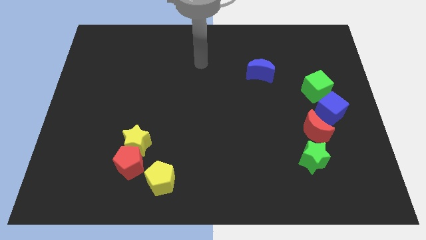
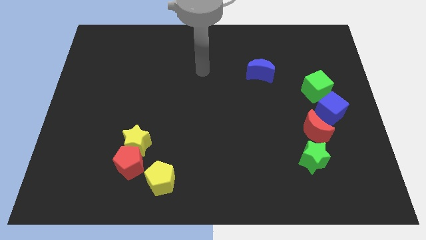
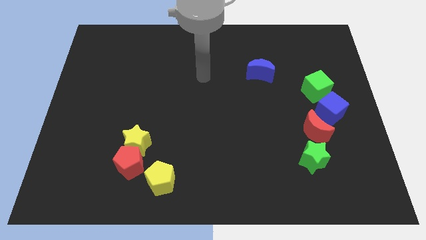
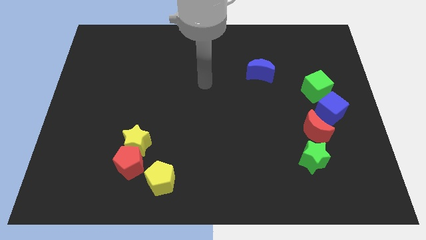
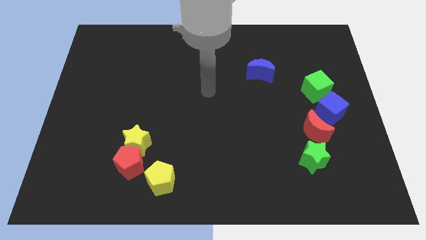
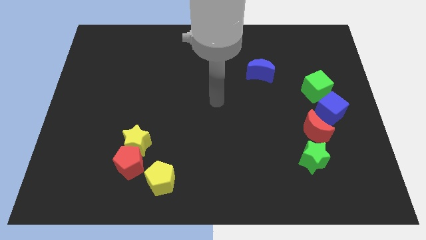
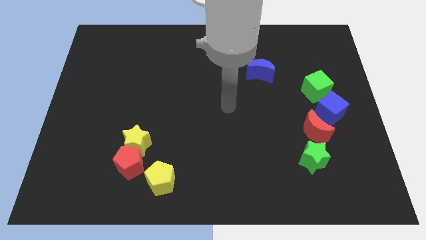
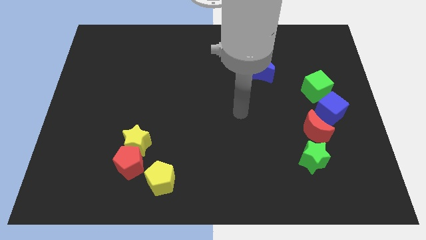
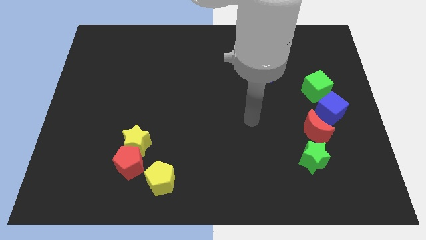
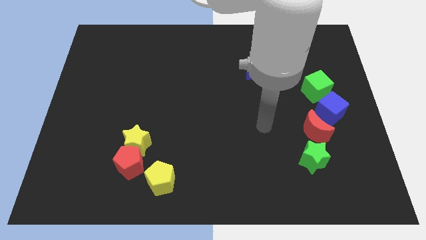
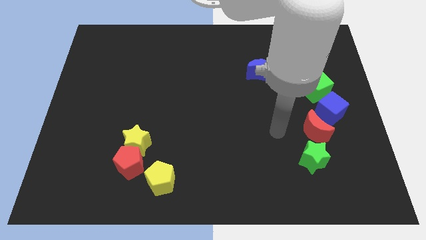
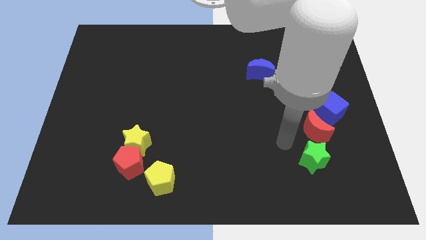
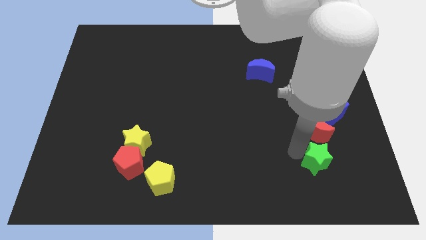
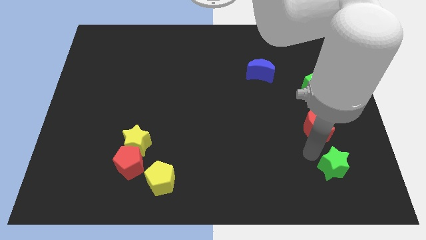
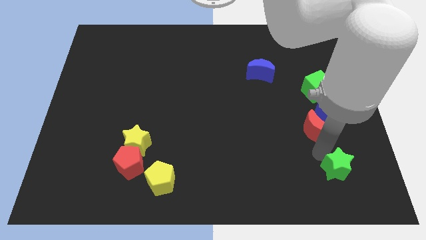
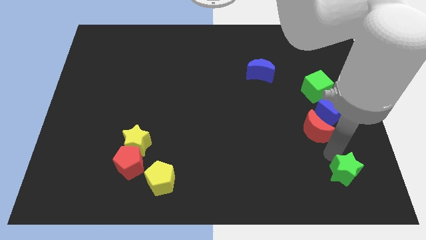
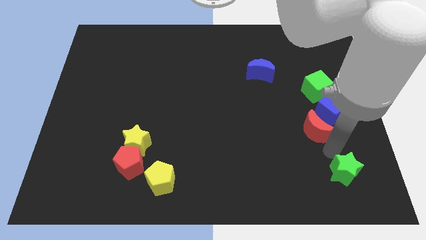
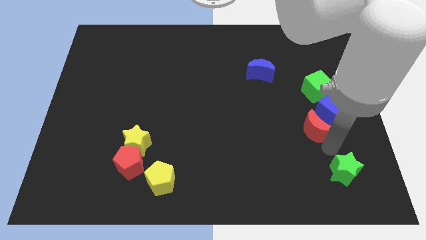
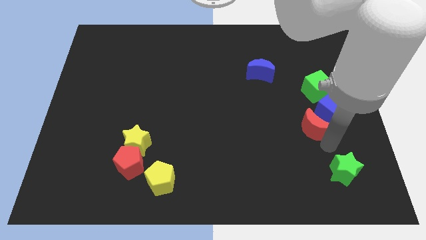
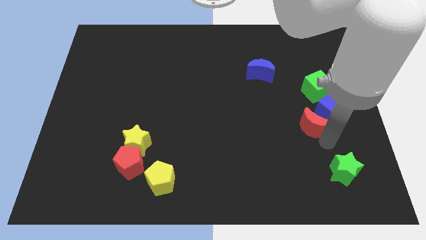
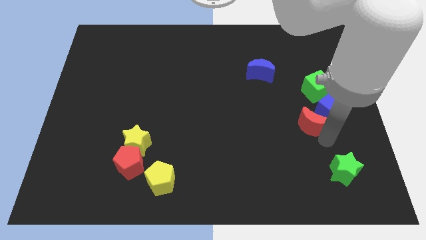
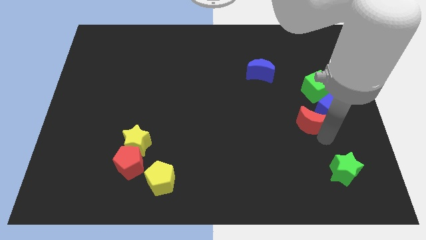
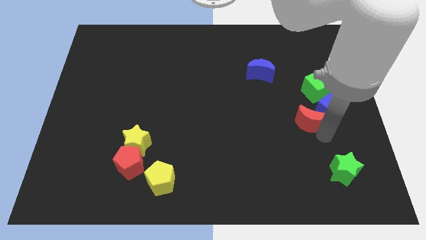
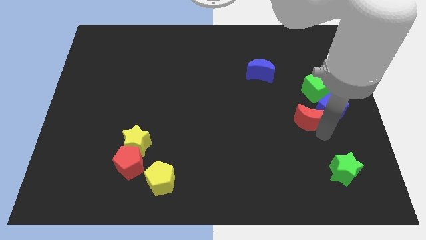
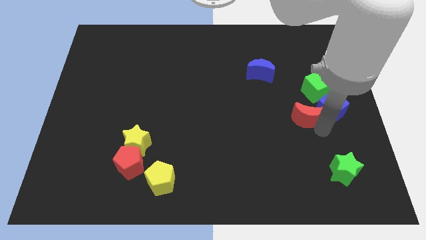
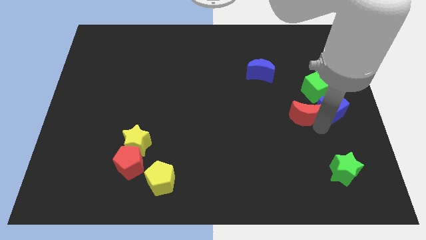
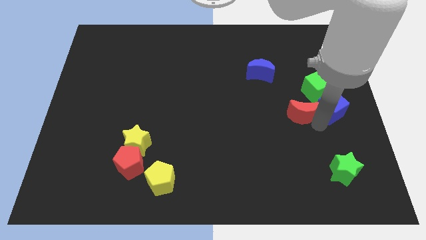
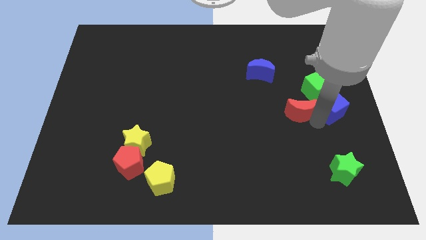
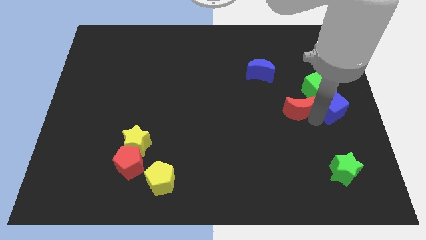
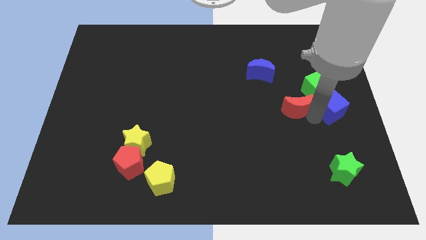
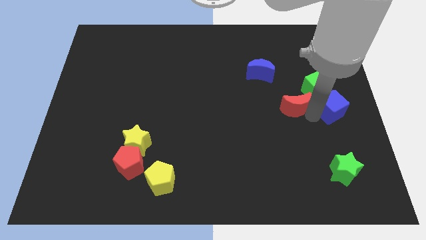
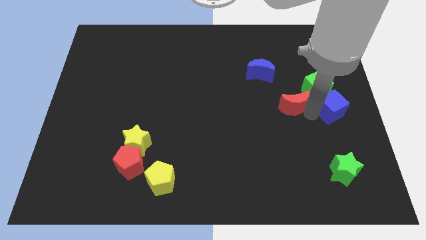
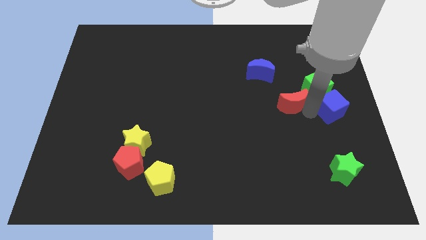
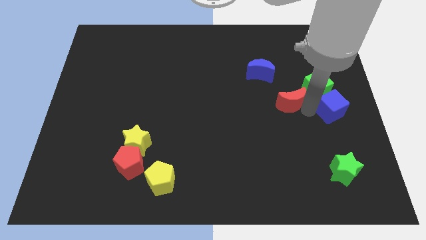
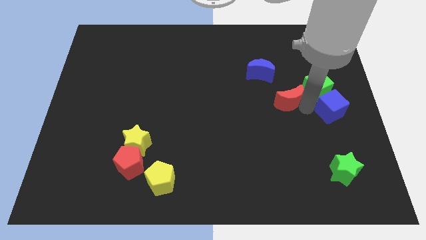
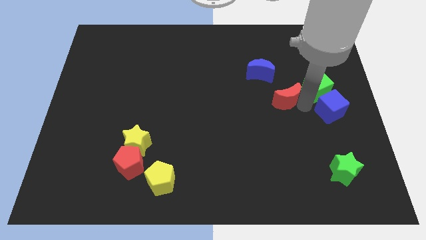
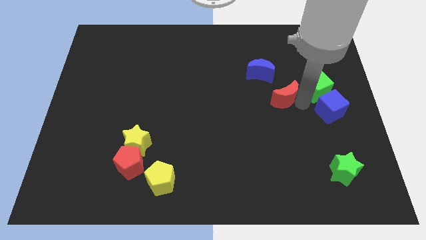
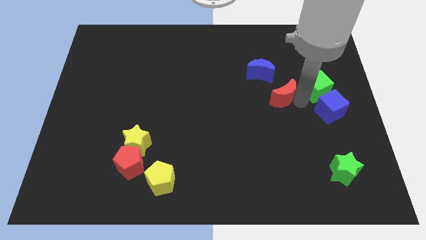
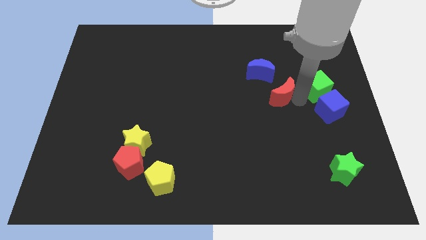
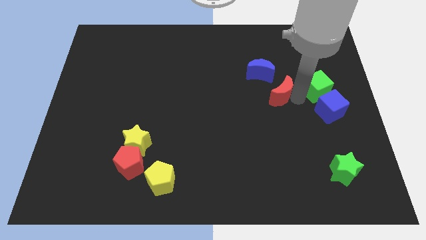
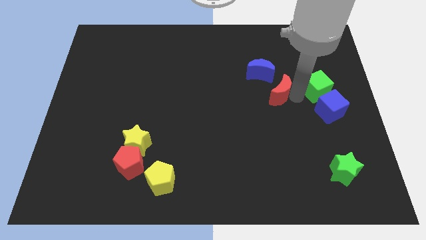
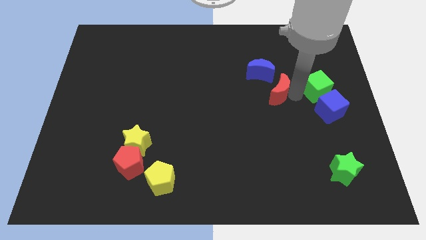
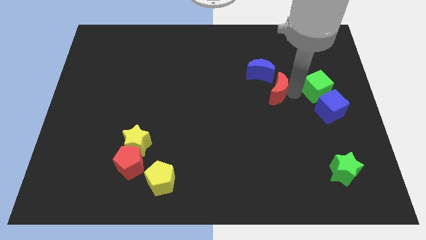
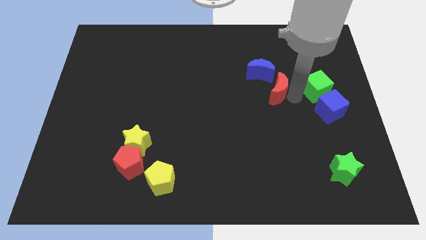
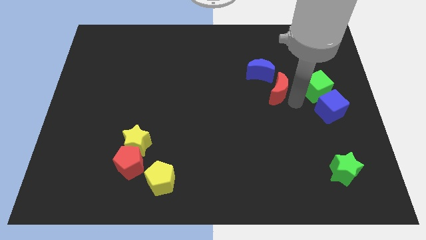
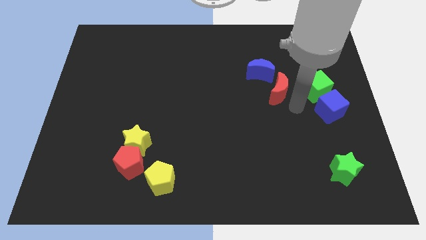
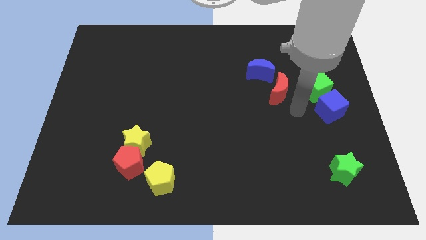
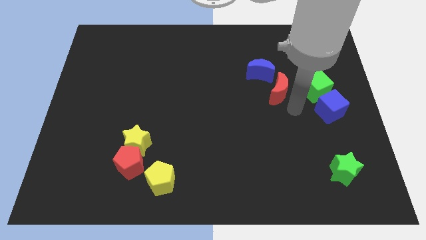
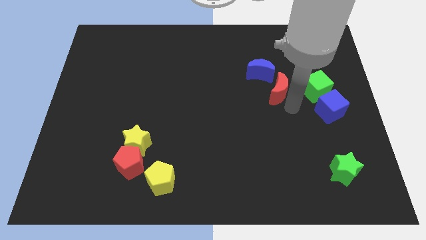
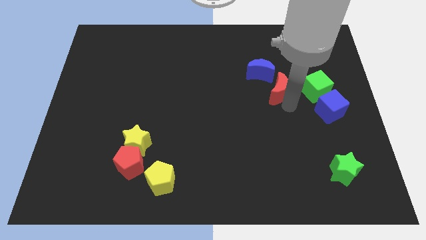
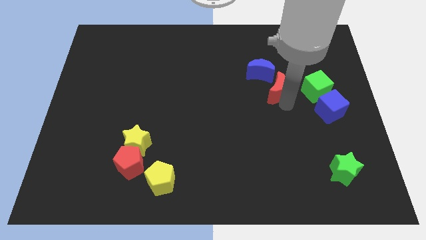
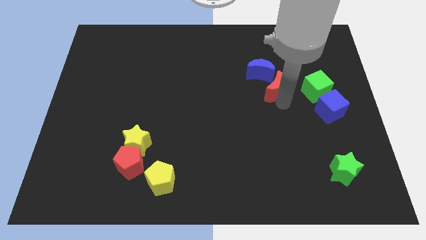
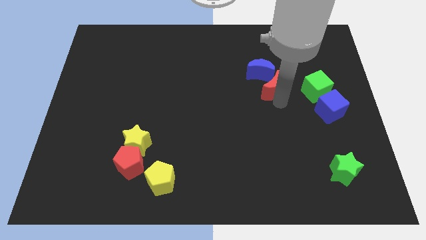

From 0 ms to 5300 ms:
move the red moon to the blue moon

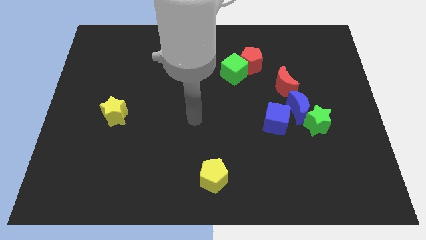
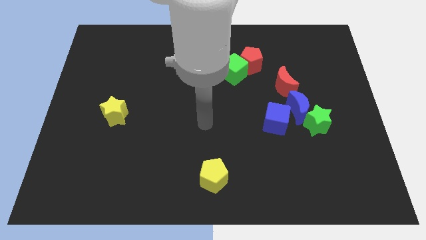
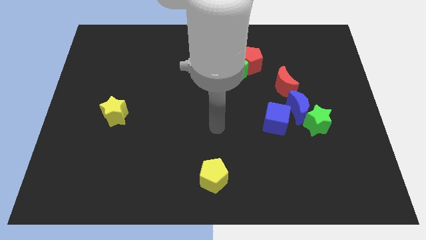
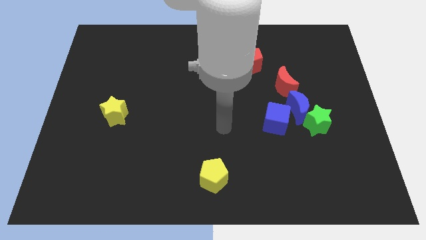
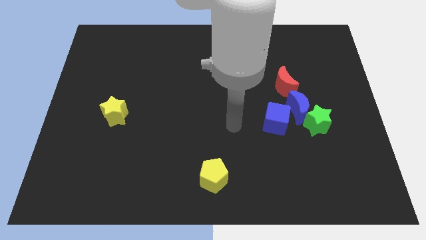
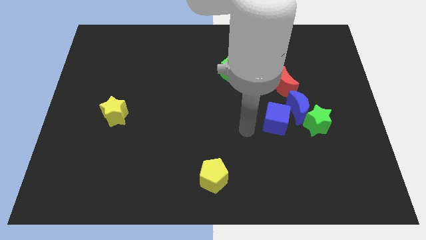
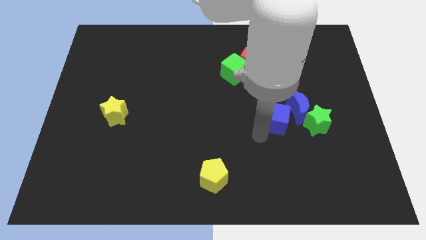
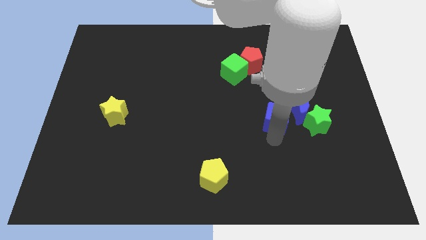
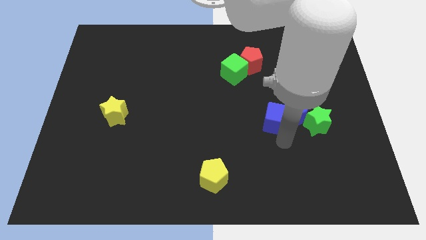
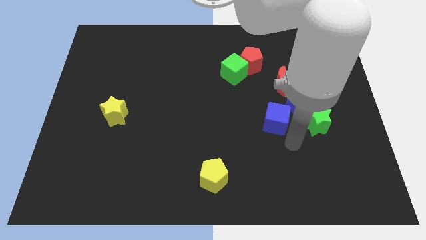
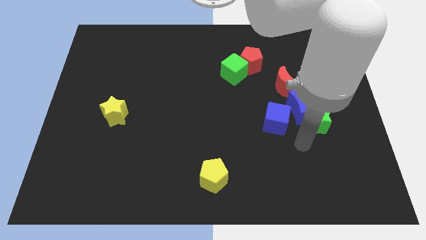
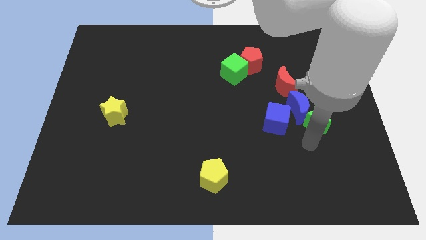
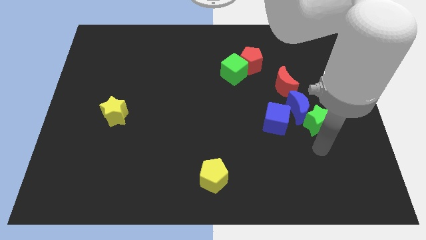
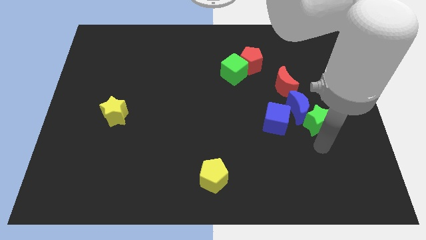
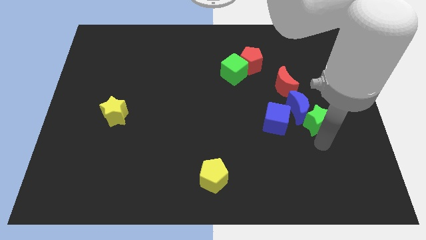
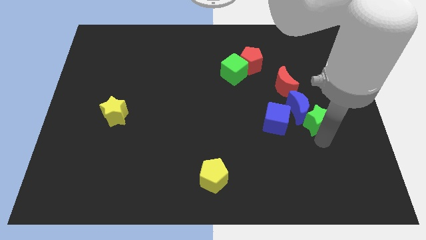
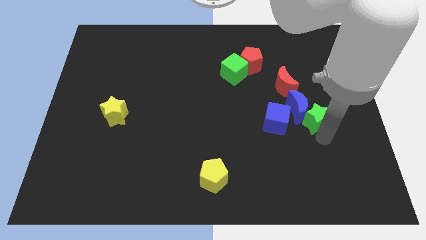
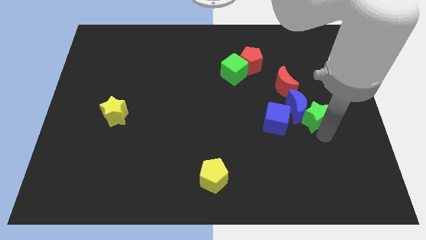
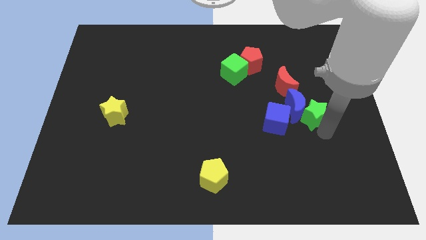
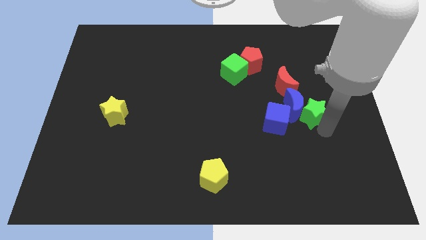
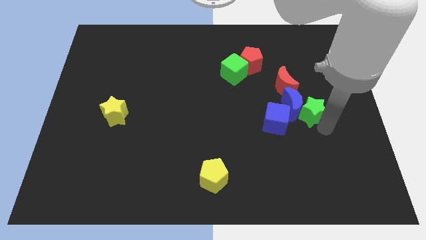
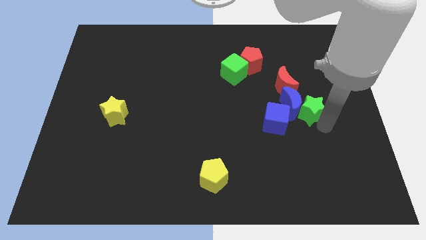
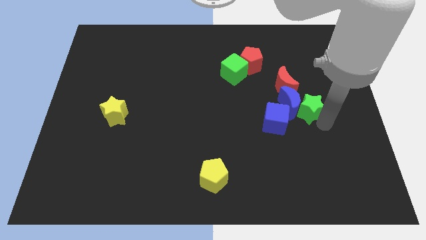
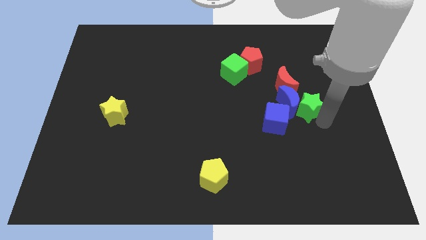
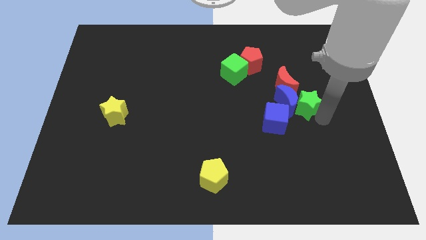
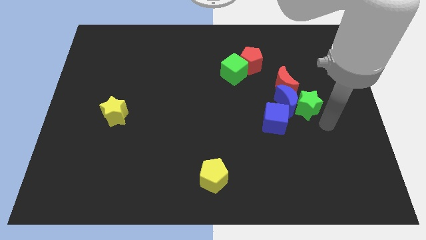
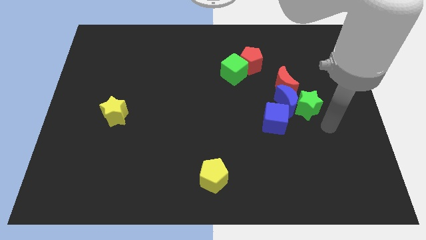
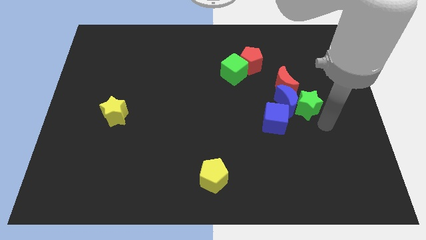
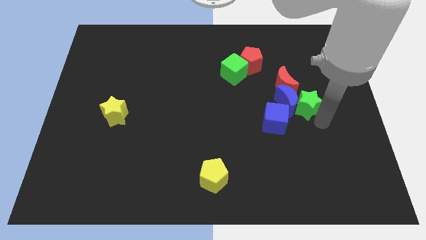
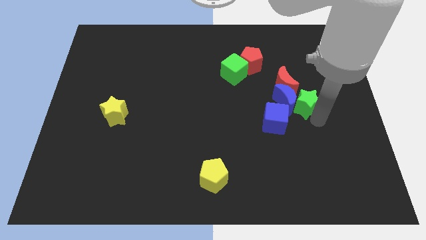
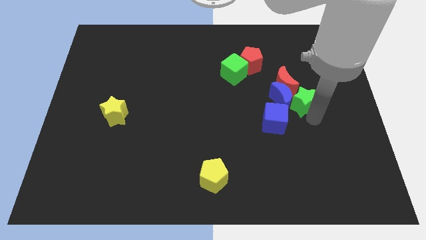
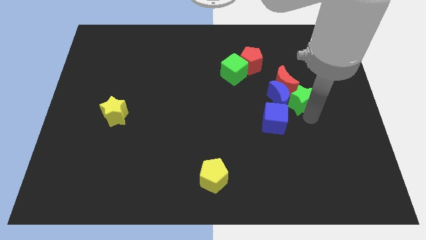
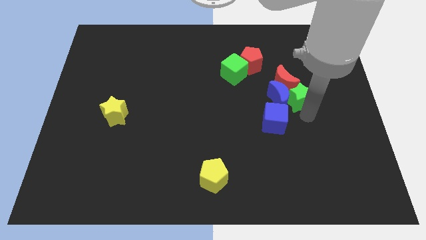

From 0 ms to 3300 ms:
slide the green star towards the red moon
